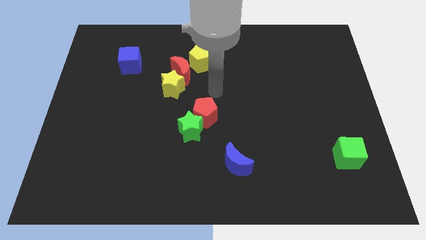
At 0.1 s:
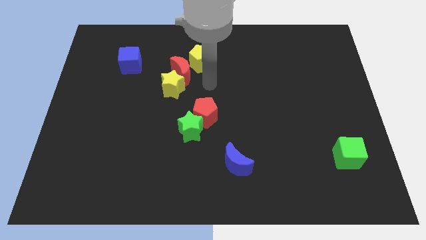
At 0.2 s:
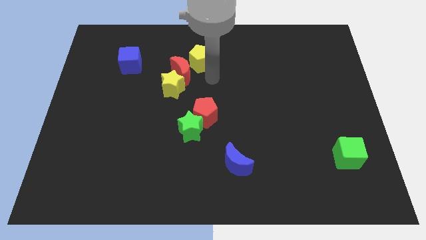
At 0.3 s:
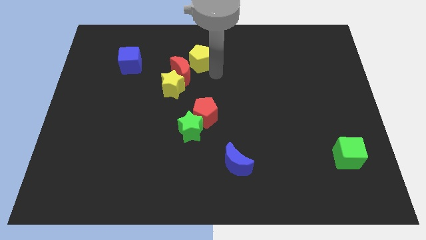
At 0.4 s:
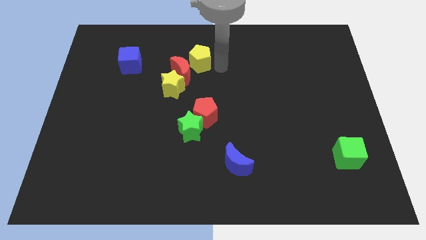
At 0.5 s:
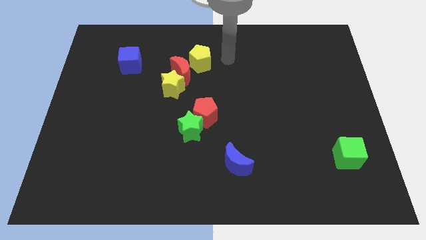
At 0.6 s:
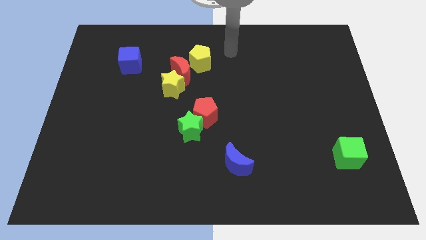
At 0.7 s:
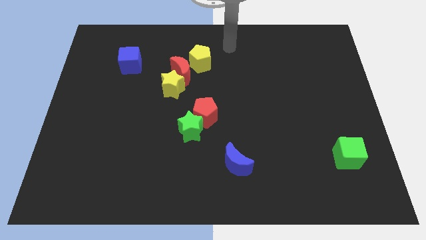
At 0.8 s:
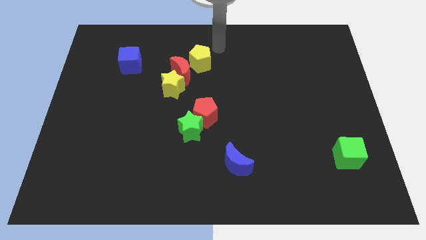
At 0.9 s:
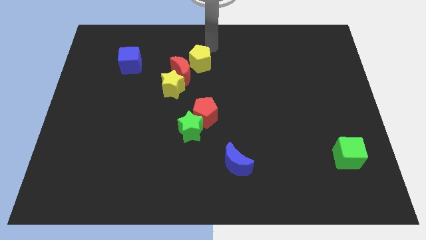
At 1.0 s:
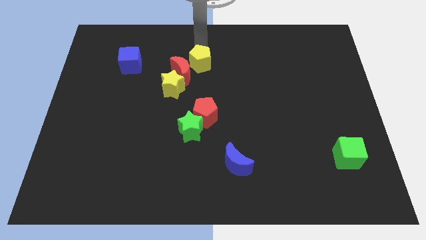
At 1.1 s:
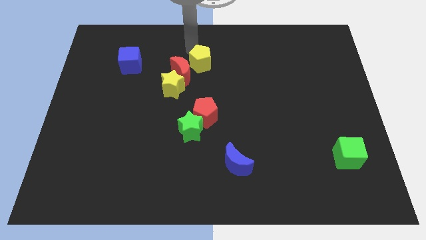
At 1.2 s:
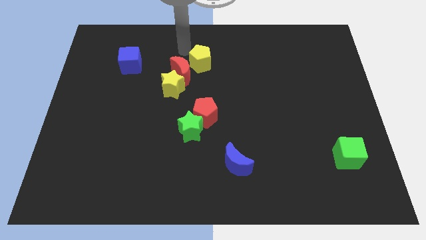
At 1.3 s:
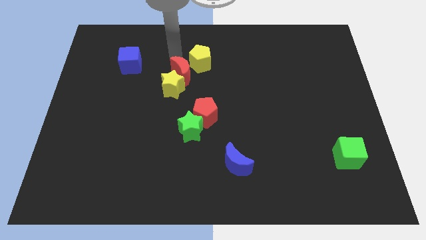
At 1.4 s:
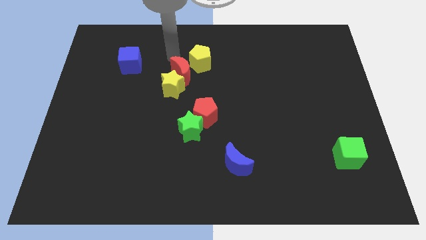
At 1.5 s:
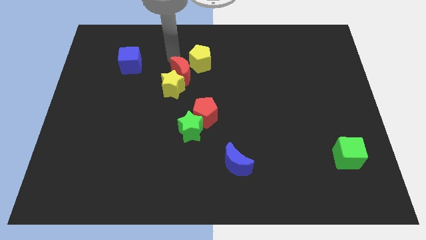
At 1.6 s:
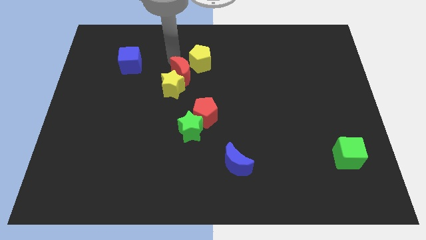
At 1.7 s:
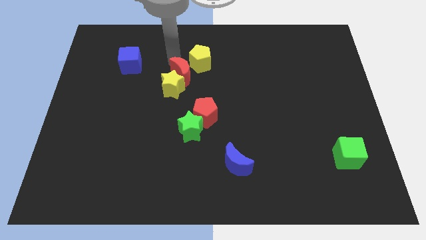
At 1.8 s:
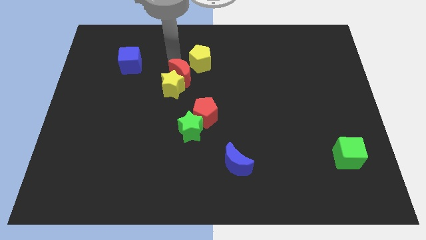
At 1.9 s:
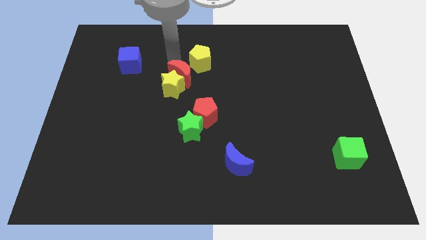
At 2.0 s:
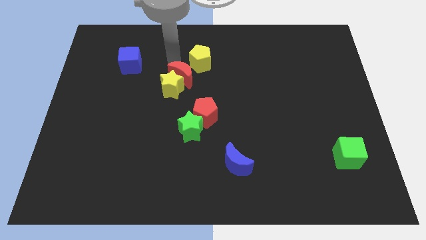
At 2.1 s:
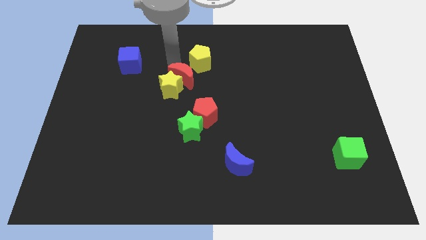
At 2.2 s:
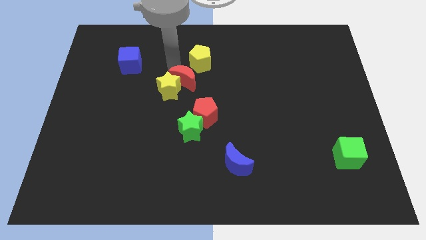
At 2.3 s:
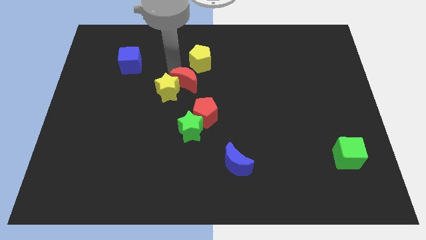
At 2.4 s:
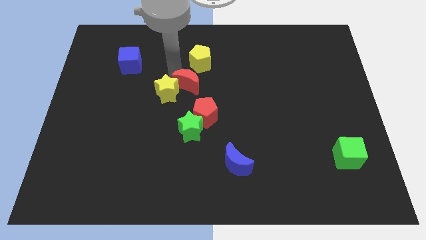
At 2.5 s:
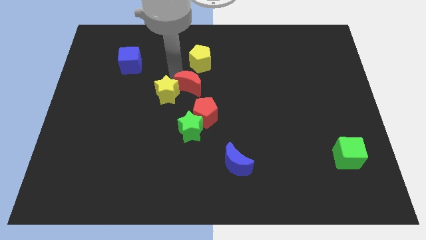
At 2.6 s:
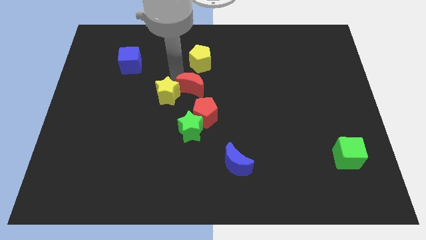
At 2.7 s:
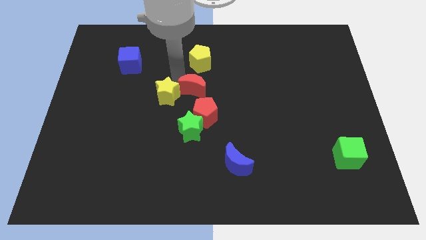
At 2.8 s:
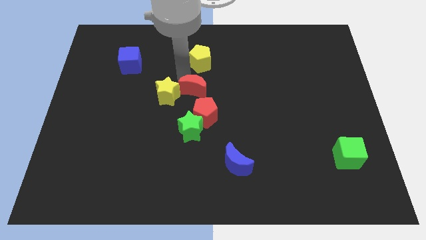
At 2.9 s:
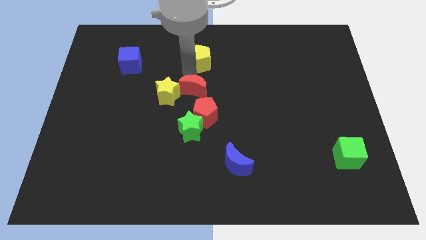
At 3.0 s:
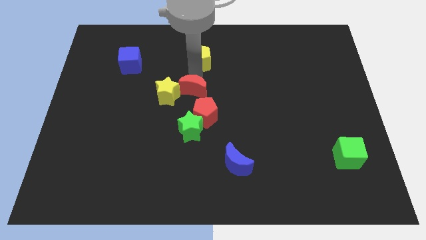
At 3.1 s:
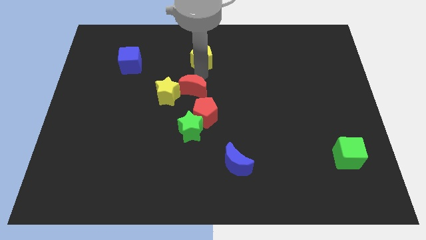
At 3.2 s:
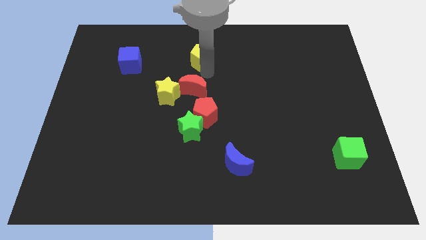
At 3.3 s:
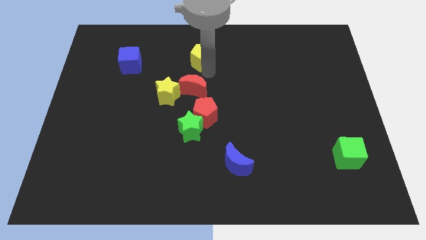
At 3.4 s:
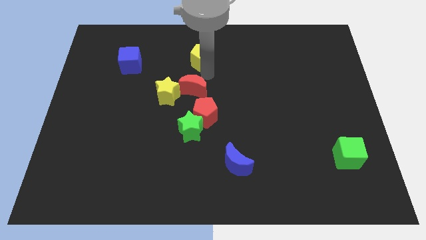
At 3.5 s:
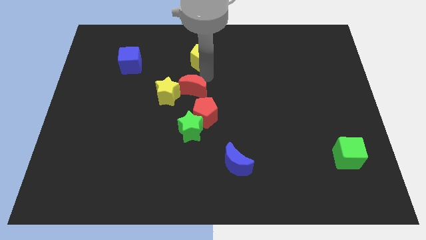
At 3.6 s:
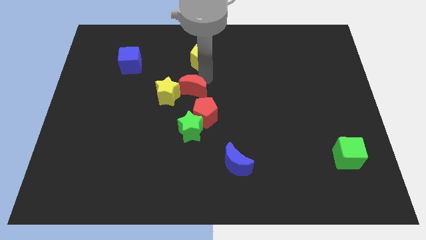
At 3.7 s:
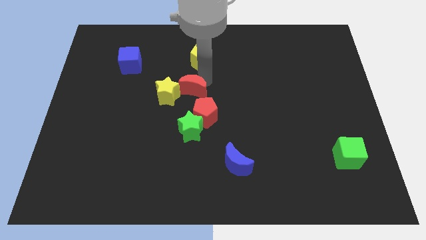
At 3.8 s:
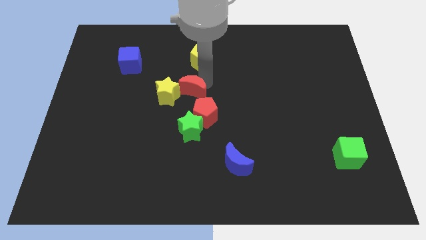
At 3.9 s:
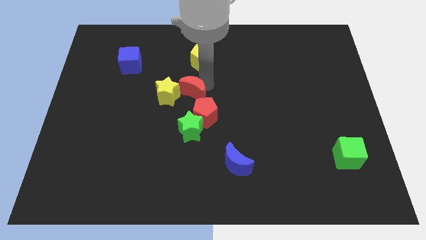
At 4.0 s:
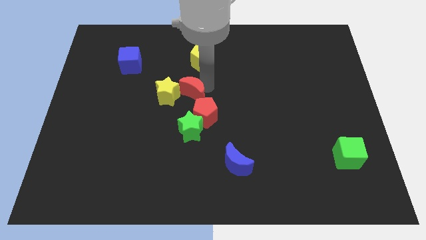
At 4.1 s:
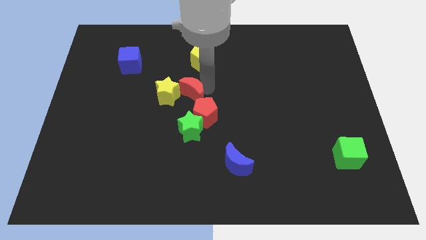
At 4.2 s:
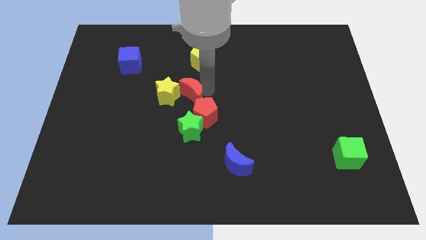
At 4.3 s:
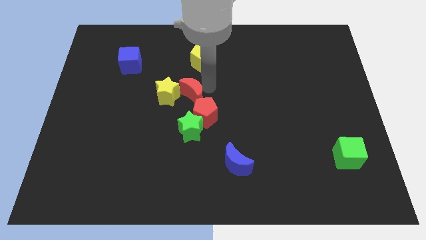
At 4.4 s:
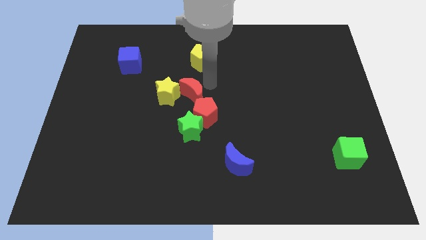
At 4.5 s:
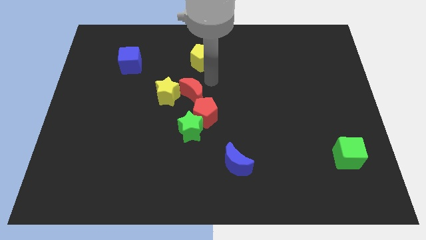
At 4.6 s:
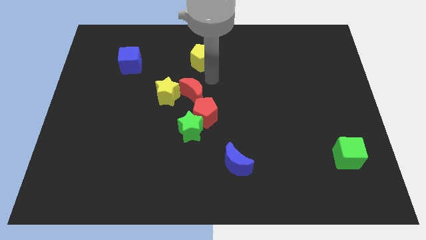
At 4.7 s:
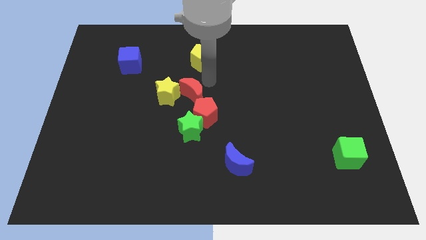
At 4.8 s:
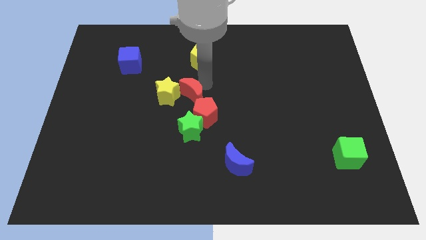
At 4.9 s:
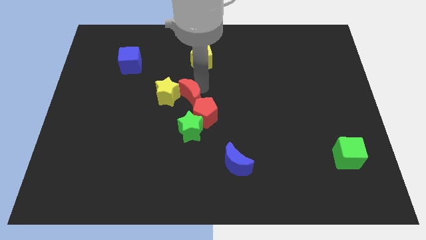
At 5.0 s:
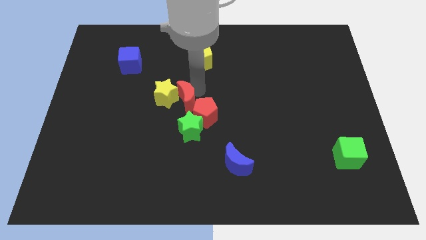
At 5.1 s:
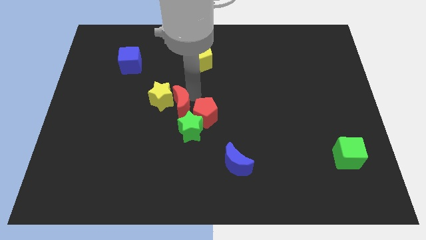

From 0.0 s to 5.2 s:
push the red moon diagonally up and to the left of the green star

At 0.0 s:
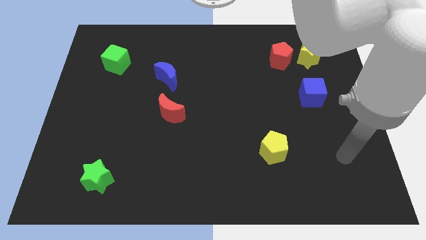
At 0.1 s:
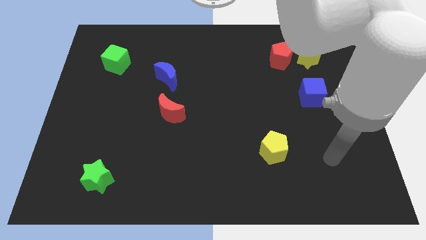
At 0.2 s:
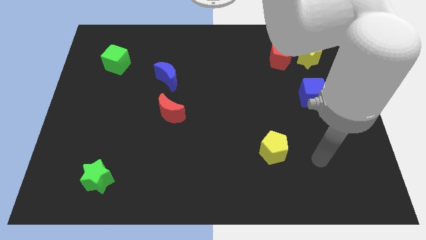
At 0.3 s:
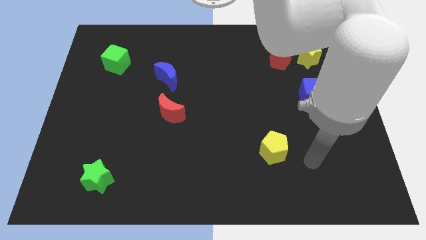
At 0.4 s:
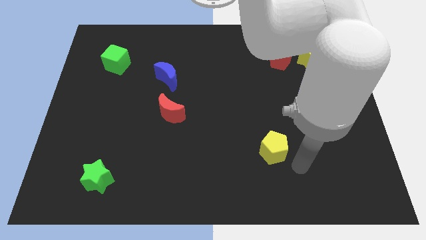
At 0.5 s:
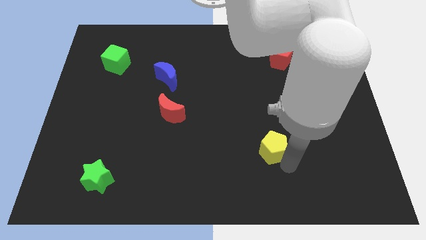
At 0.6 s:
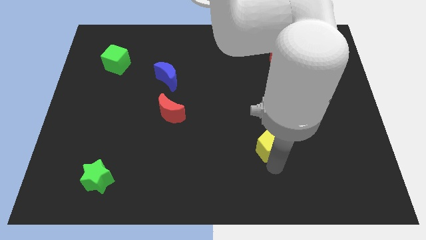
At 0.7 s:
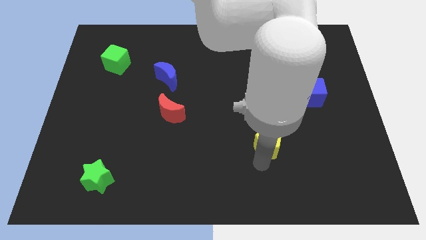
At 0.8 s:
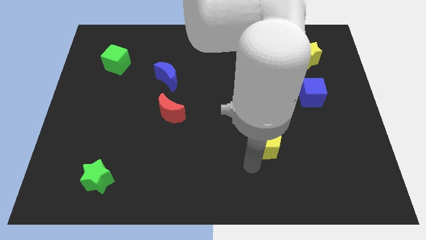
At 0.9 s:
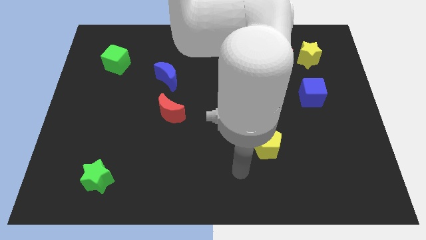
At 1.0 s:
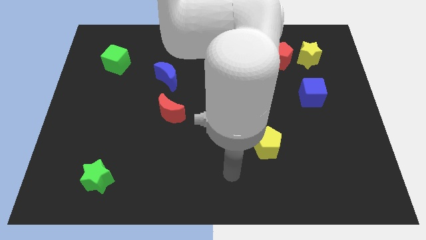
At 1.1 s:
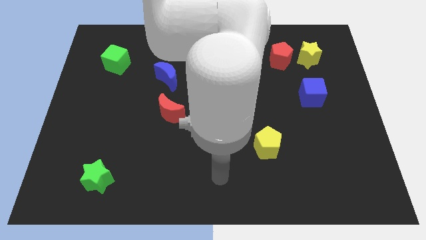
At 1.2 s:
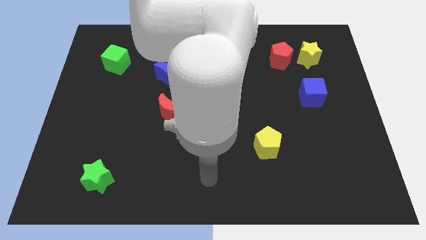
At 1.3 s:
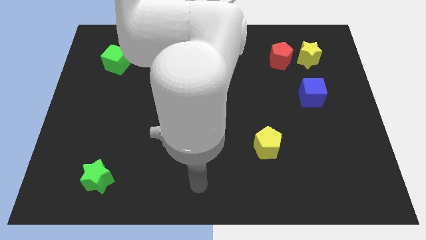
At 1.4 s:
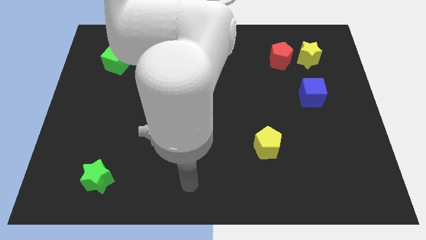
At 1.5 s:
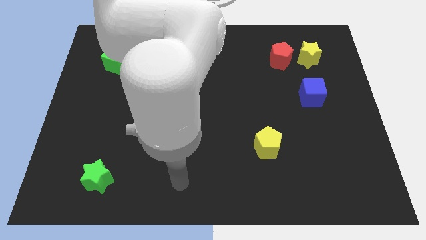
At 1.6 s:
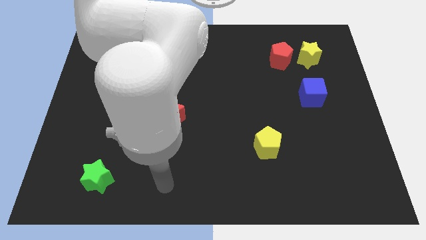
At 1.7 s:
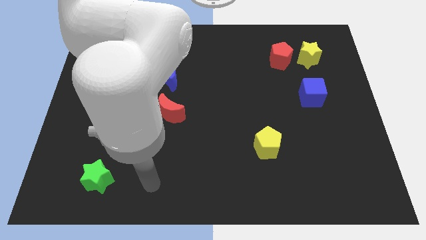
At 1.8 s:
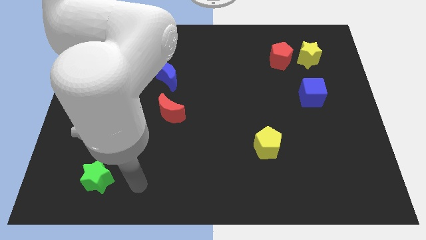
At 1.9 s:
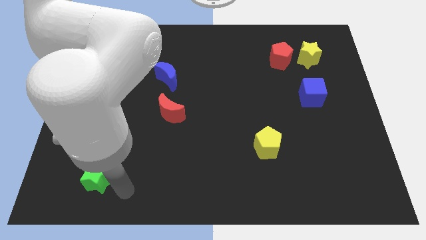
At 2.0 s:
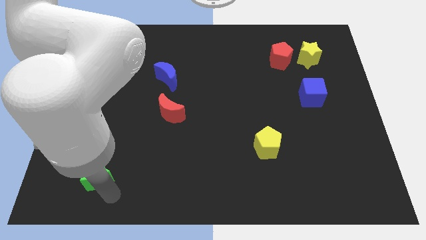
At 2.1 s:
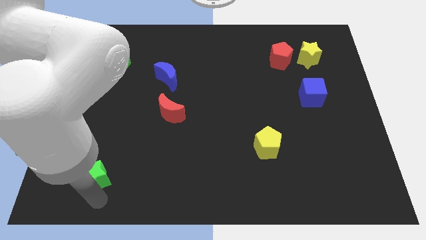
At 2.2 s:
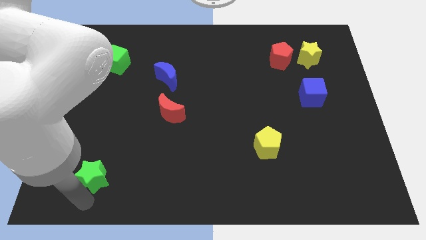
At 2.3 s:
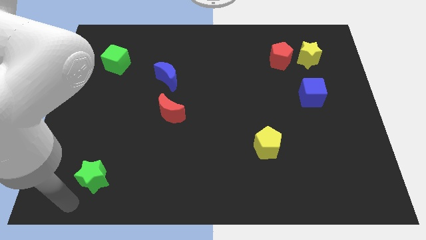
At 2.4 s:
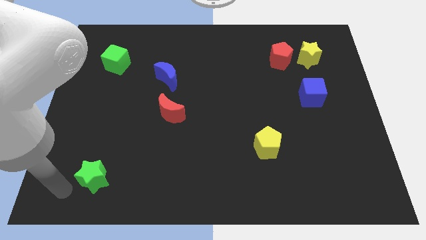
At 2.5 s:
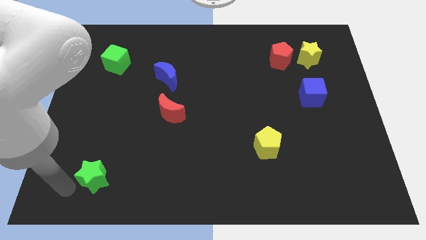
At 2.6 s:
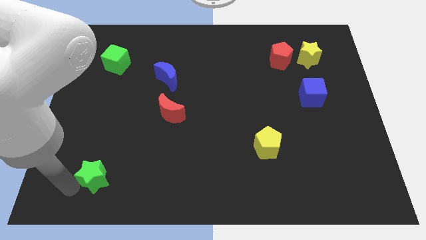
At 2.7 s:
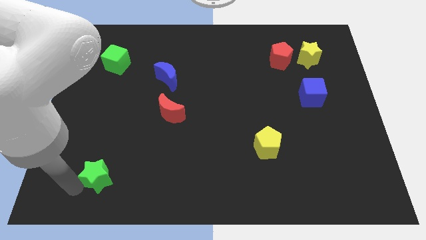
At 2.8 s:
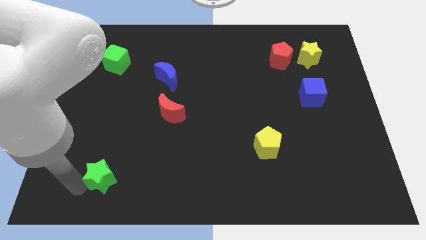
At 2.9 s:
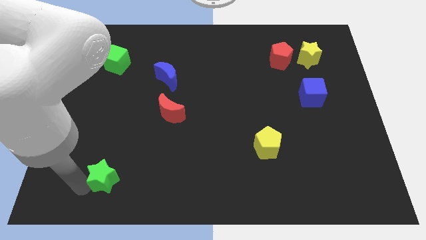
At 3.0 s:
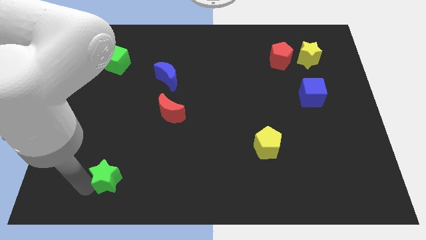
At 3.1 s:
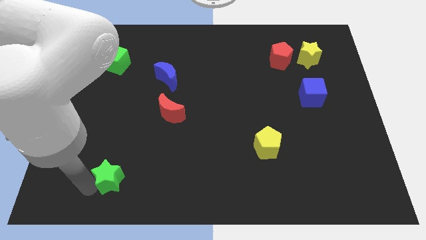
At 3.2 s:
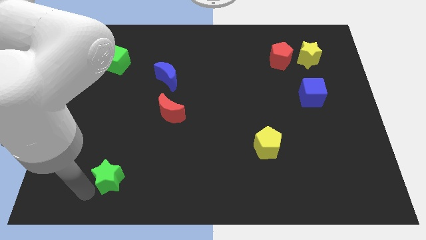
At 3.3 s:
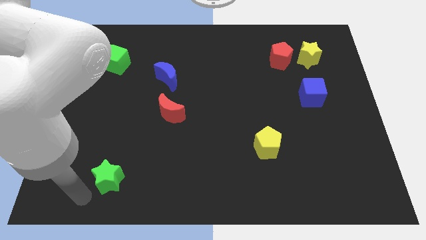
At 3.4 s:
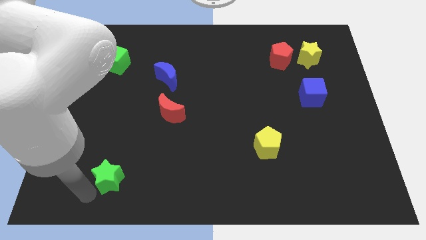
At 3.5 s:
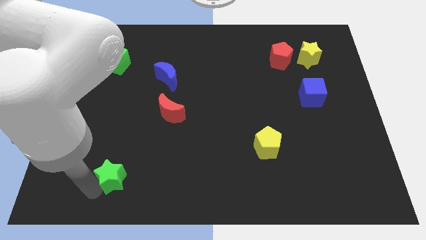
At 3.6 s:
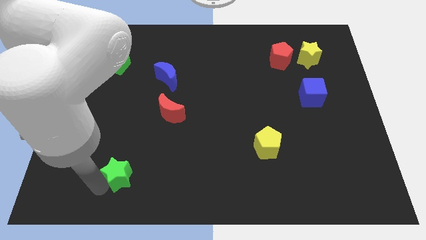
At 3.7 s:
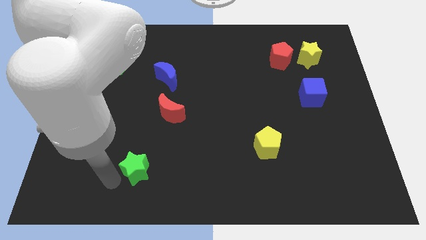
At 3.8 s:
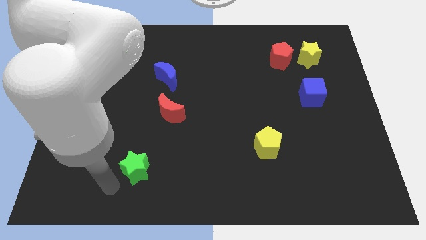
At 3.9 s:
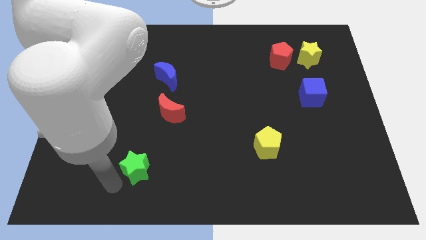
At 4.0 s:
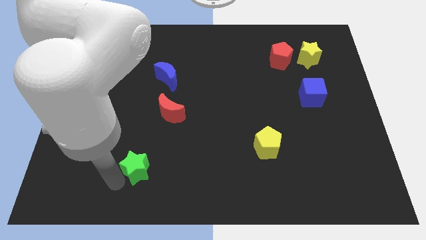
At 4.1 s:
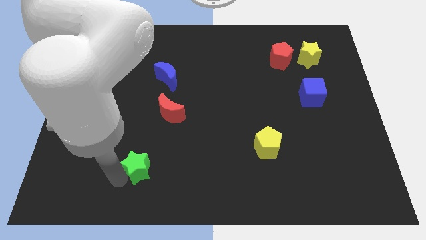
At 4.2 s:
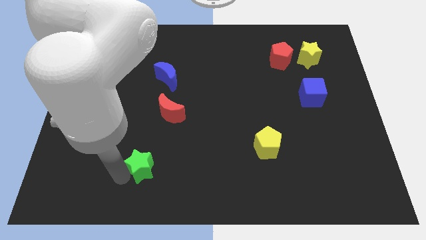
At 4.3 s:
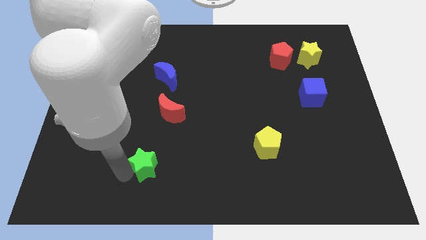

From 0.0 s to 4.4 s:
put the green star to the bottom of the red moon
